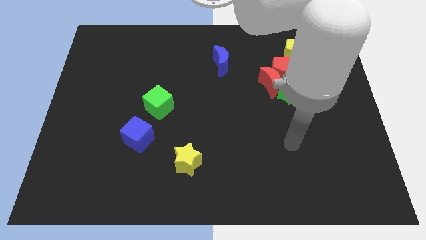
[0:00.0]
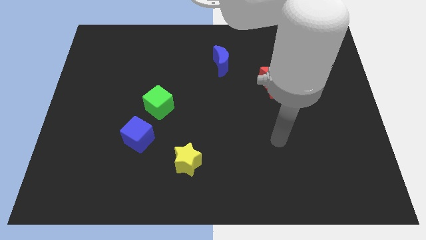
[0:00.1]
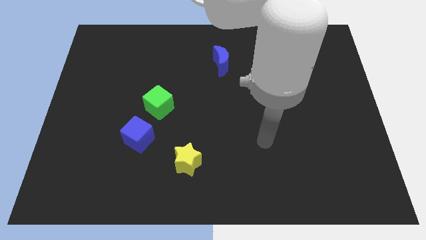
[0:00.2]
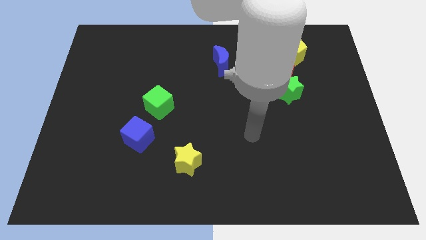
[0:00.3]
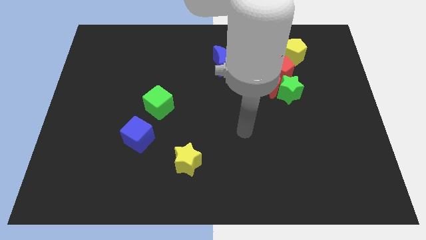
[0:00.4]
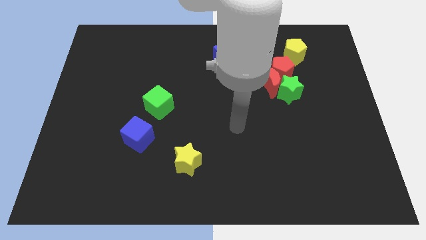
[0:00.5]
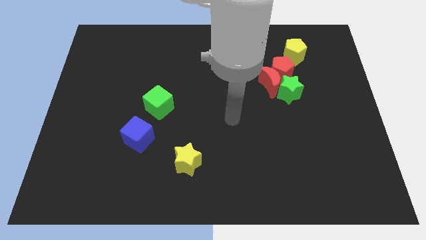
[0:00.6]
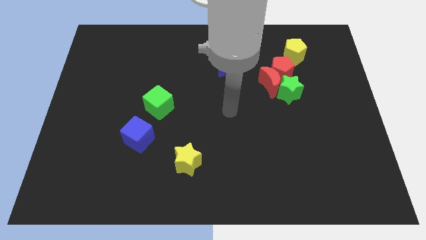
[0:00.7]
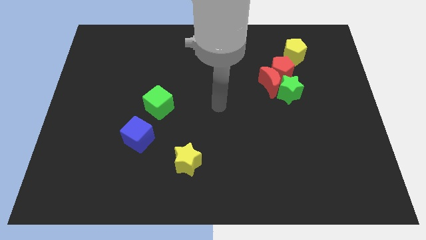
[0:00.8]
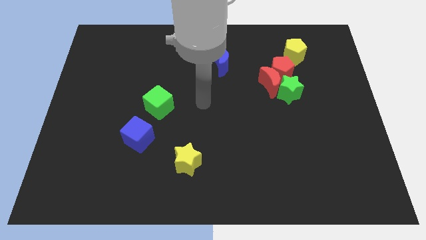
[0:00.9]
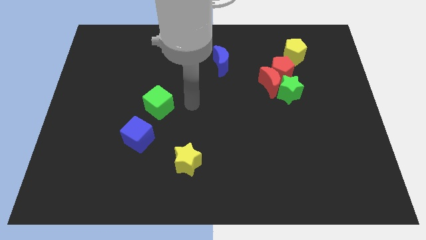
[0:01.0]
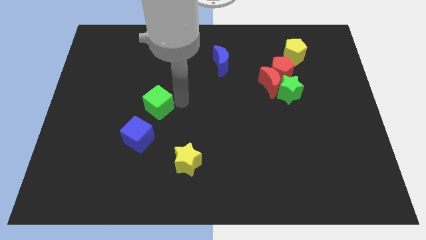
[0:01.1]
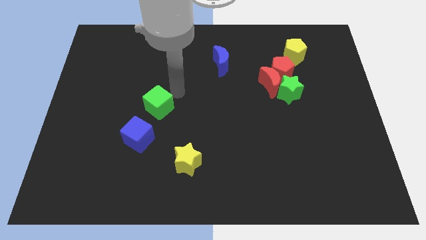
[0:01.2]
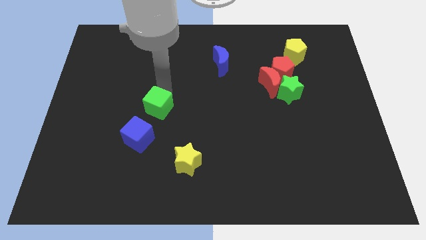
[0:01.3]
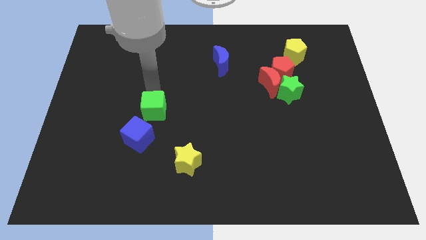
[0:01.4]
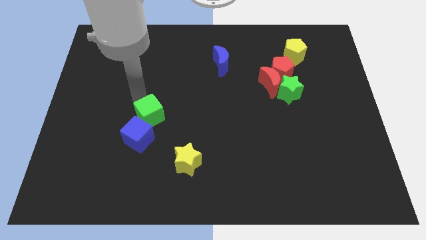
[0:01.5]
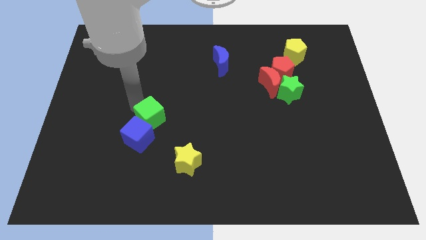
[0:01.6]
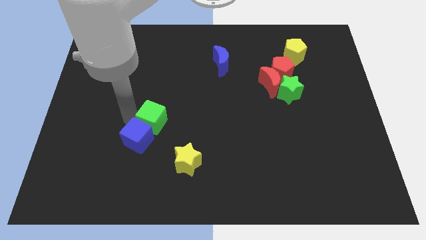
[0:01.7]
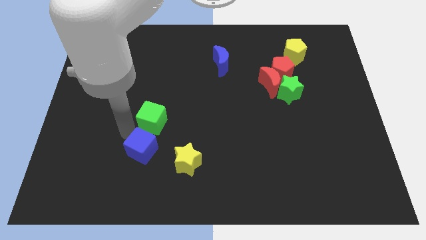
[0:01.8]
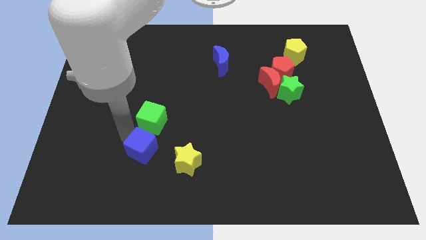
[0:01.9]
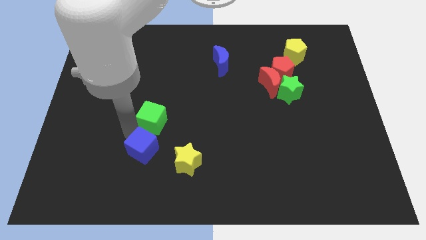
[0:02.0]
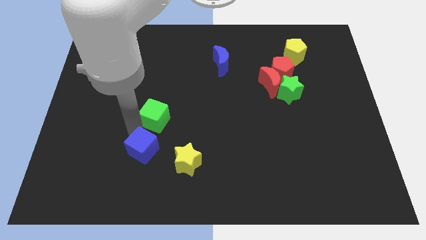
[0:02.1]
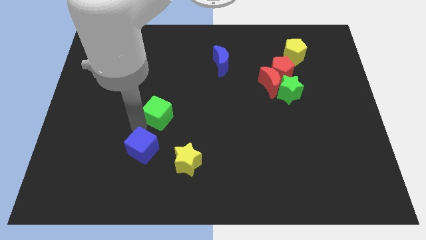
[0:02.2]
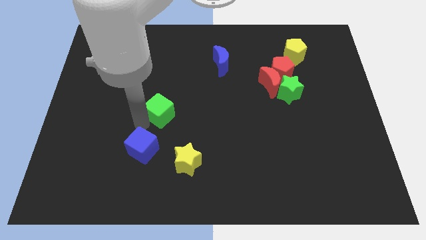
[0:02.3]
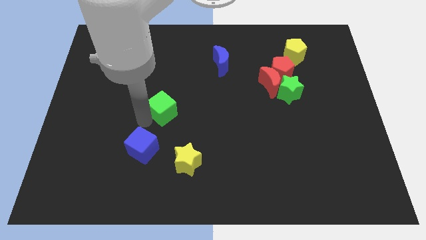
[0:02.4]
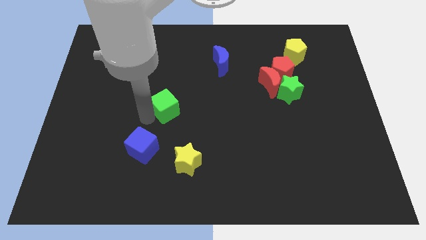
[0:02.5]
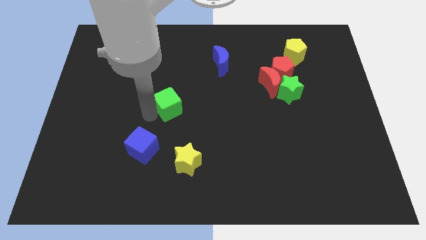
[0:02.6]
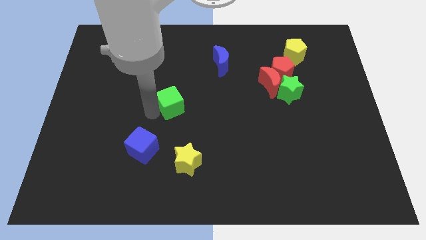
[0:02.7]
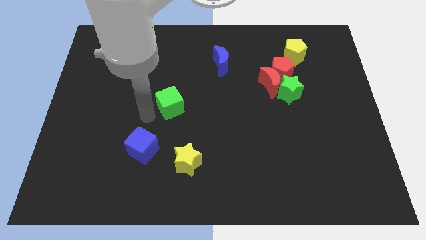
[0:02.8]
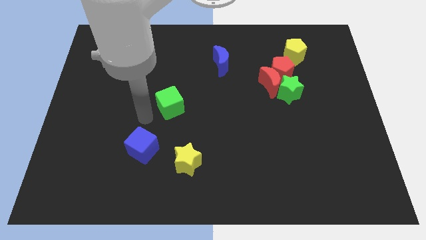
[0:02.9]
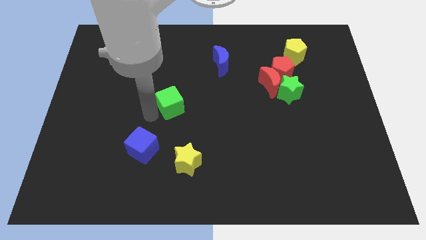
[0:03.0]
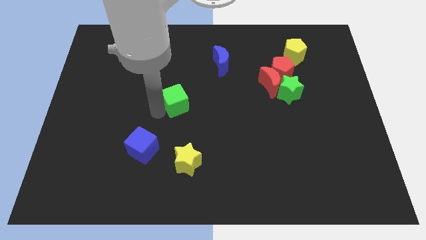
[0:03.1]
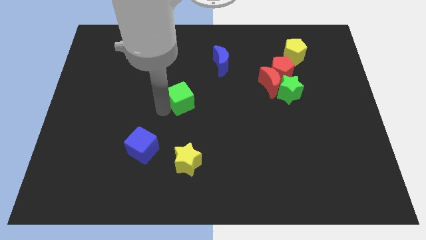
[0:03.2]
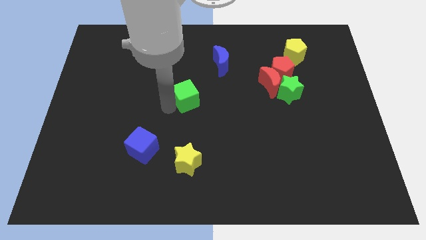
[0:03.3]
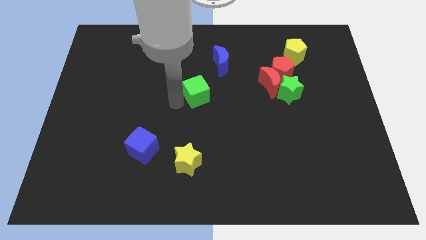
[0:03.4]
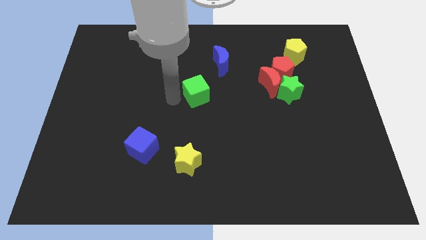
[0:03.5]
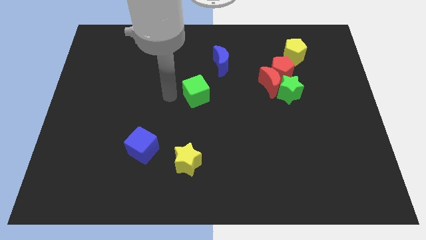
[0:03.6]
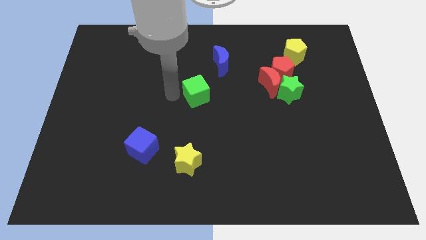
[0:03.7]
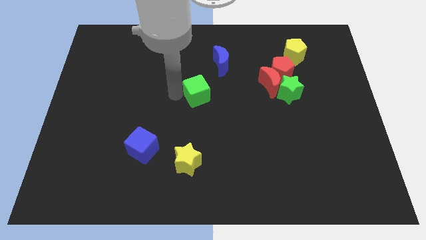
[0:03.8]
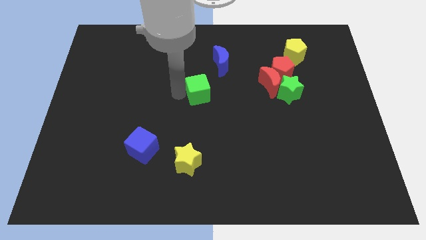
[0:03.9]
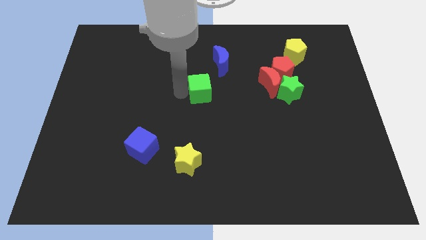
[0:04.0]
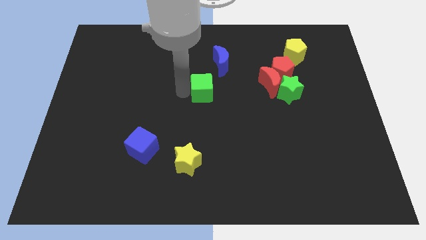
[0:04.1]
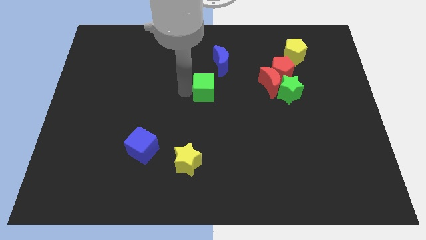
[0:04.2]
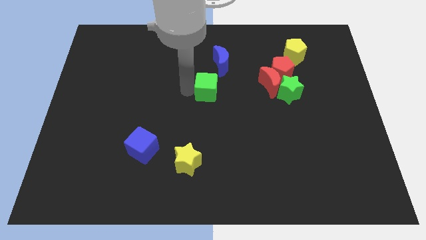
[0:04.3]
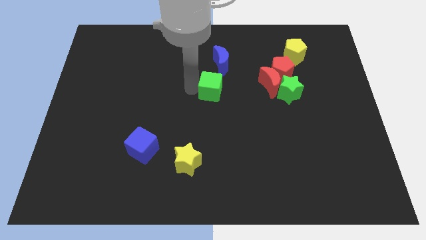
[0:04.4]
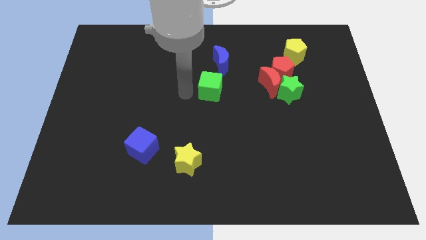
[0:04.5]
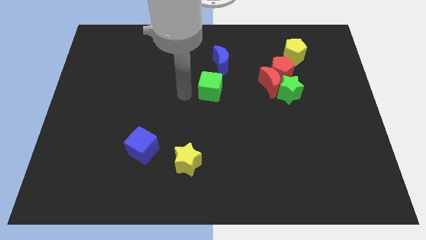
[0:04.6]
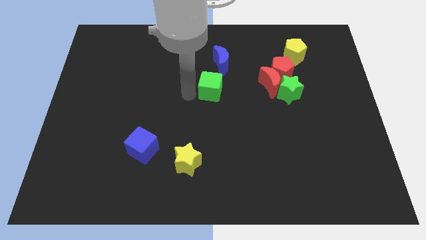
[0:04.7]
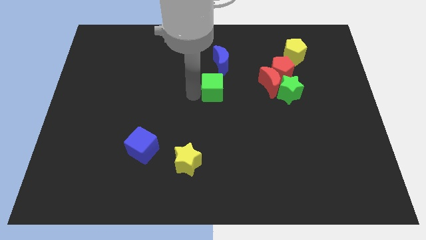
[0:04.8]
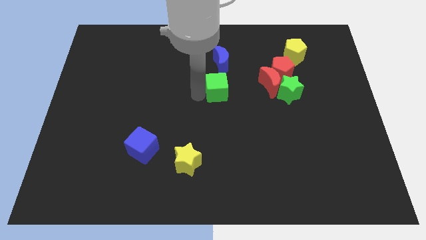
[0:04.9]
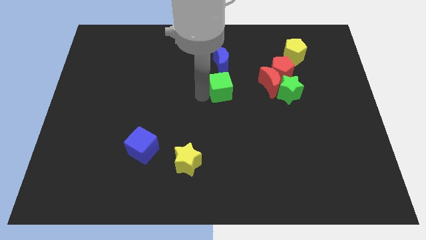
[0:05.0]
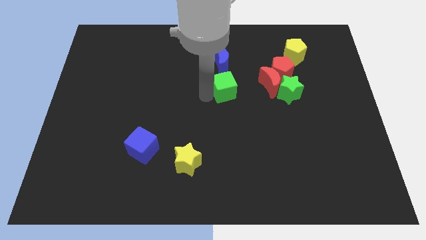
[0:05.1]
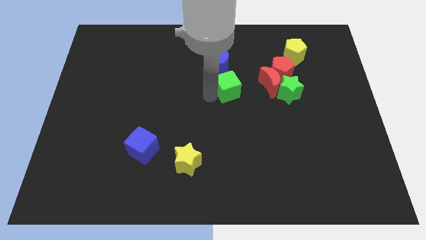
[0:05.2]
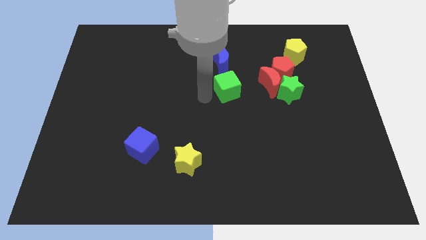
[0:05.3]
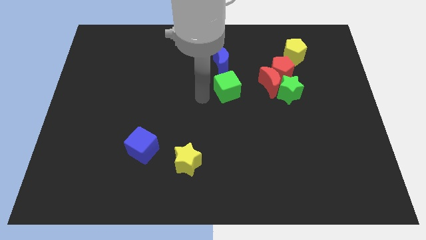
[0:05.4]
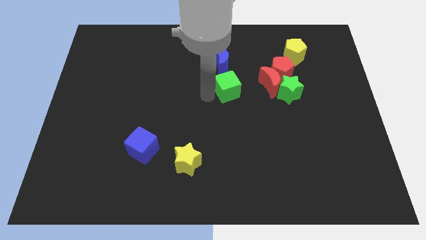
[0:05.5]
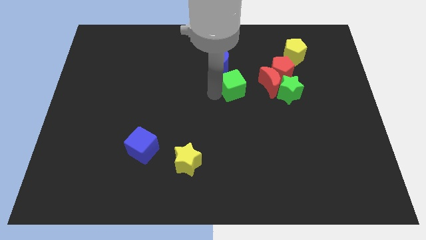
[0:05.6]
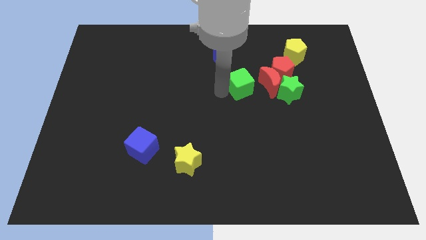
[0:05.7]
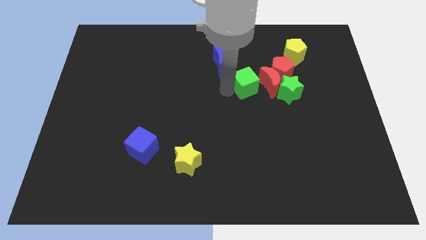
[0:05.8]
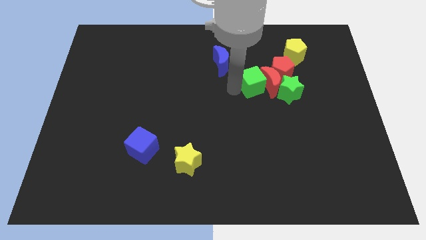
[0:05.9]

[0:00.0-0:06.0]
push the green cube to the top left side of the green star

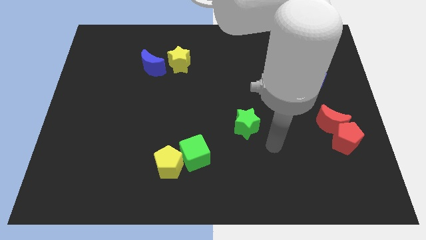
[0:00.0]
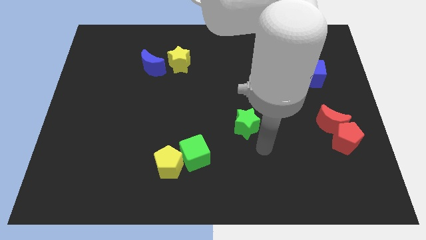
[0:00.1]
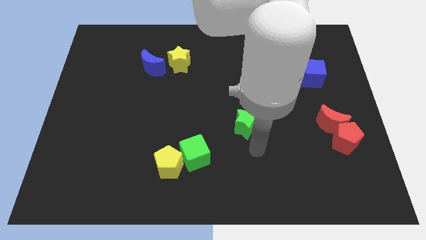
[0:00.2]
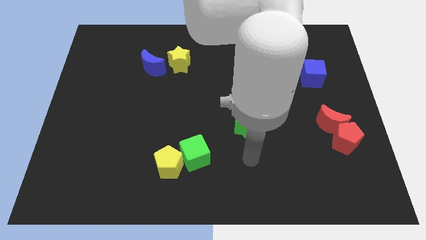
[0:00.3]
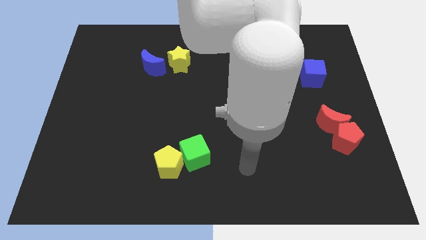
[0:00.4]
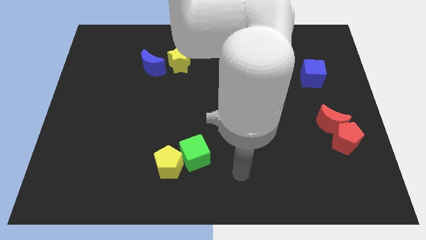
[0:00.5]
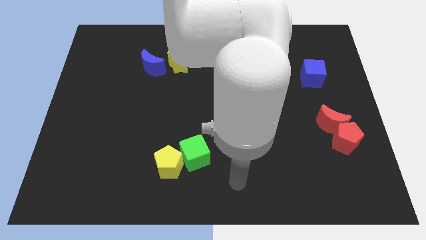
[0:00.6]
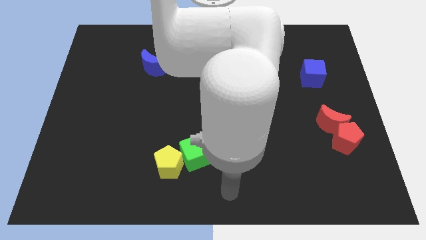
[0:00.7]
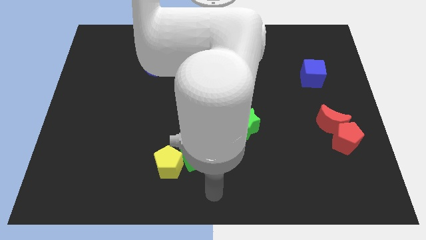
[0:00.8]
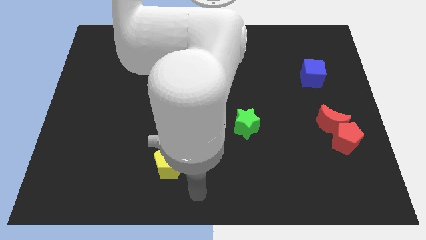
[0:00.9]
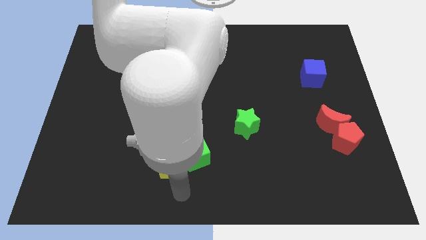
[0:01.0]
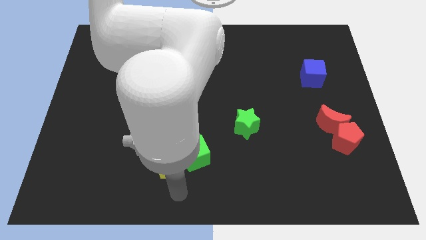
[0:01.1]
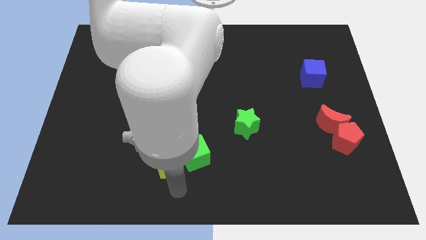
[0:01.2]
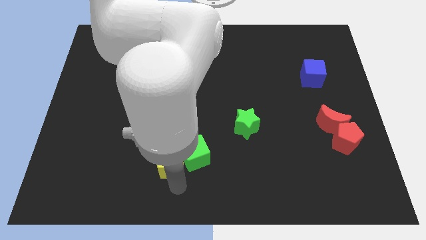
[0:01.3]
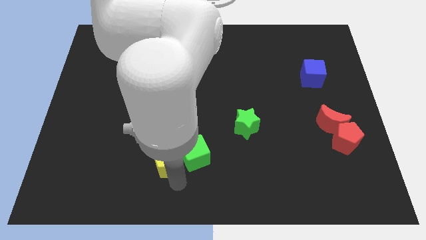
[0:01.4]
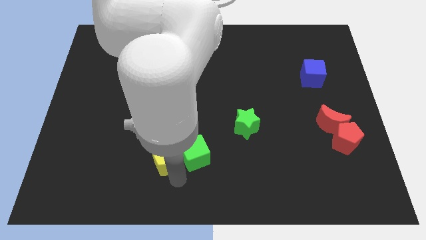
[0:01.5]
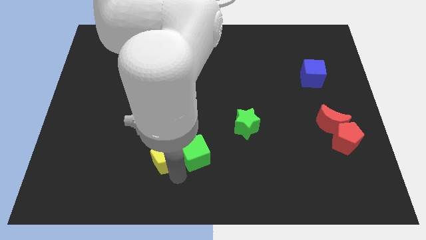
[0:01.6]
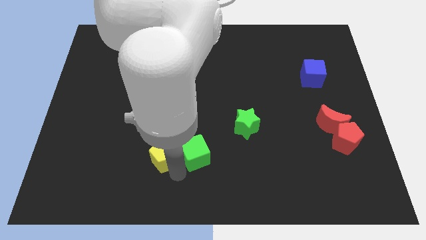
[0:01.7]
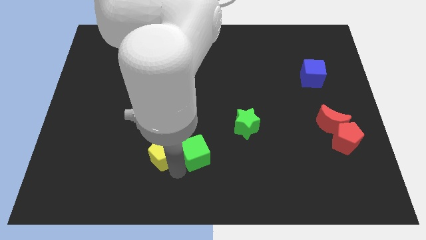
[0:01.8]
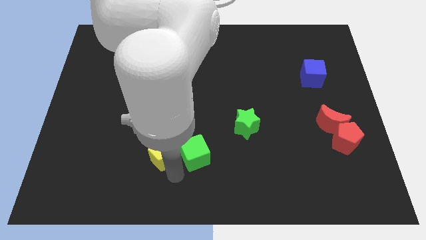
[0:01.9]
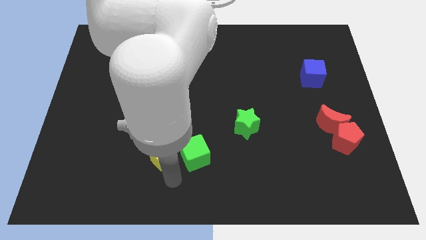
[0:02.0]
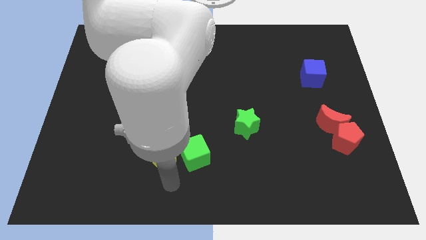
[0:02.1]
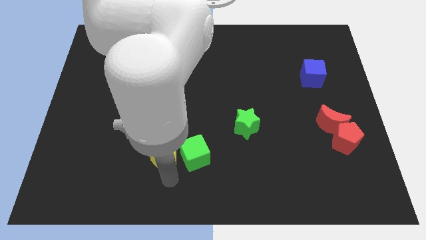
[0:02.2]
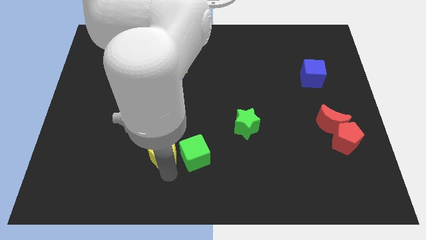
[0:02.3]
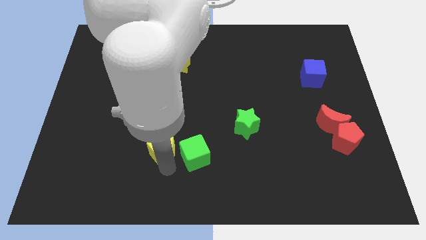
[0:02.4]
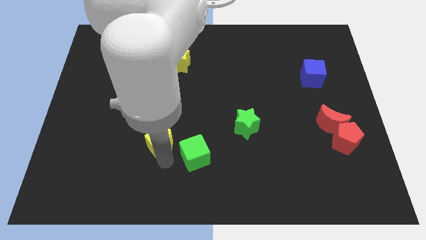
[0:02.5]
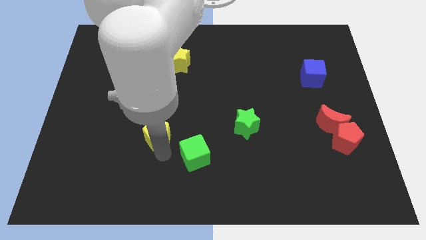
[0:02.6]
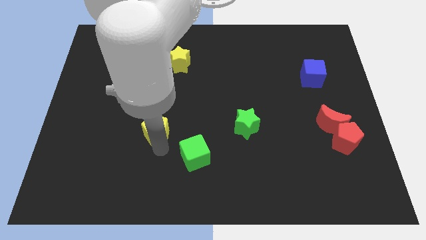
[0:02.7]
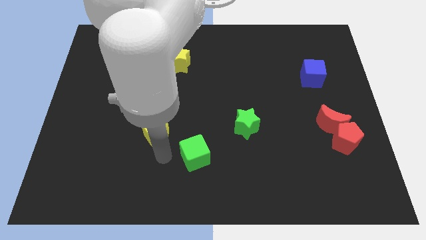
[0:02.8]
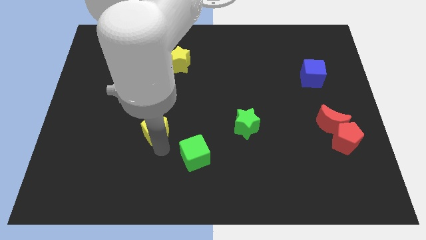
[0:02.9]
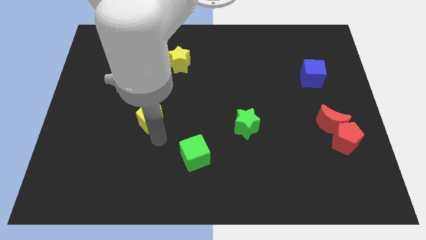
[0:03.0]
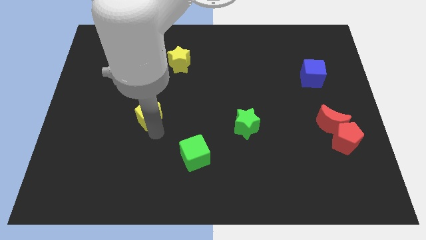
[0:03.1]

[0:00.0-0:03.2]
put the yellow pentagon to the bottom of the blue moon
